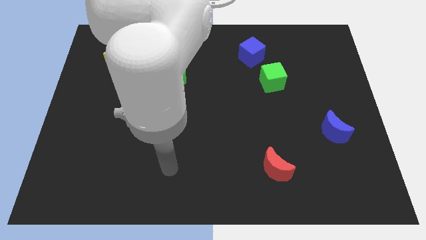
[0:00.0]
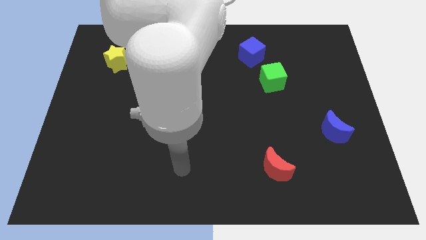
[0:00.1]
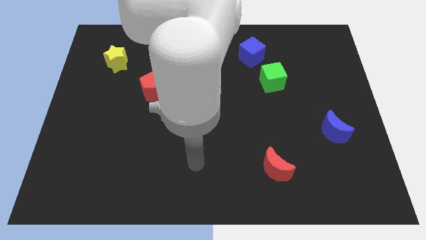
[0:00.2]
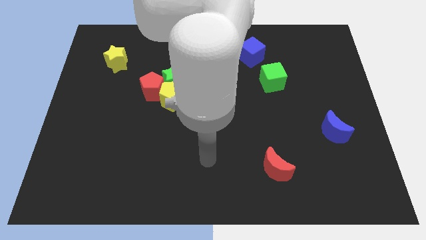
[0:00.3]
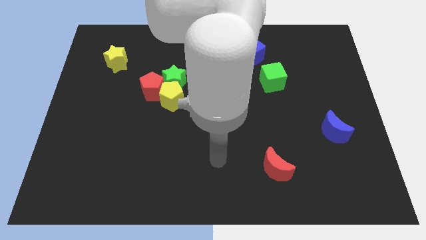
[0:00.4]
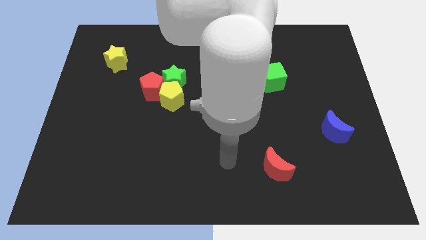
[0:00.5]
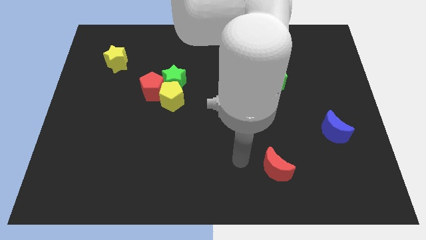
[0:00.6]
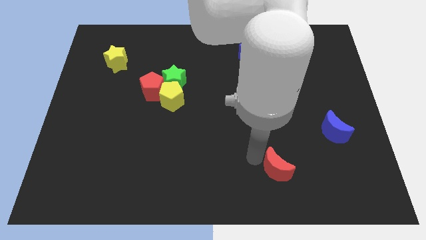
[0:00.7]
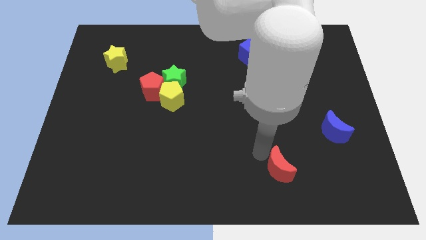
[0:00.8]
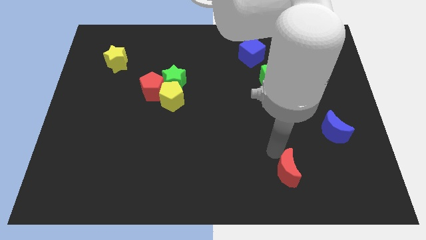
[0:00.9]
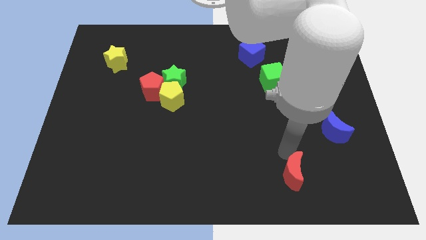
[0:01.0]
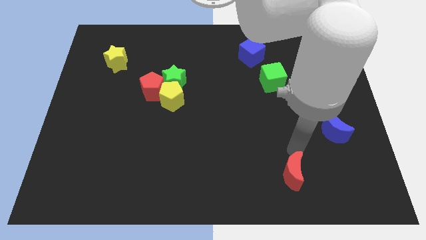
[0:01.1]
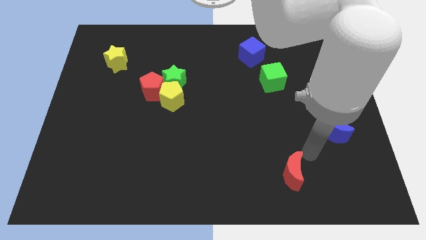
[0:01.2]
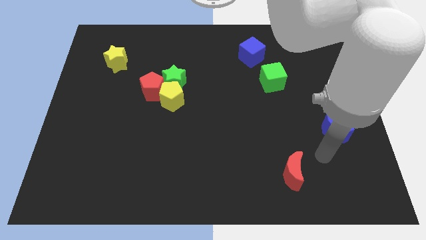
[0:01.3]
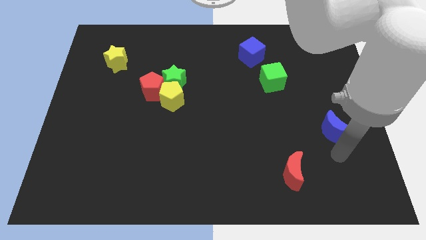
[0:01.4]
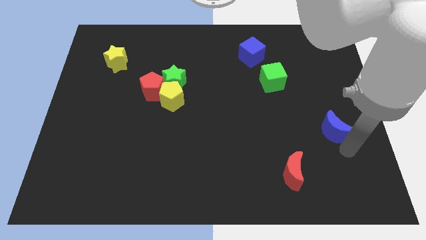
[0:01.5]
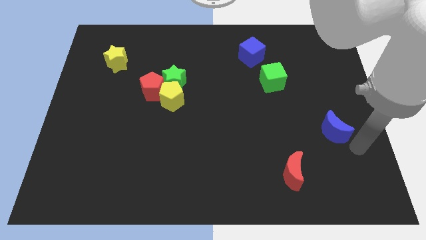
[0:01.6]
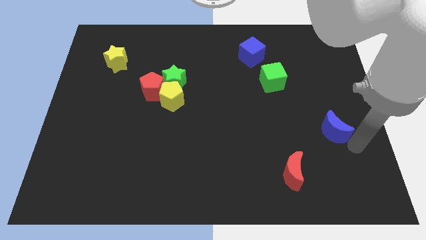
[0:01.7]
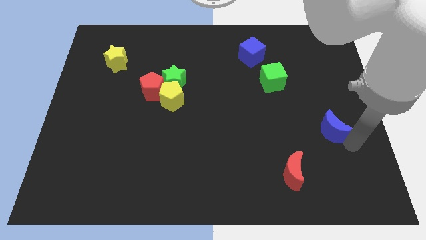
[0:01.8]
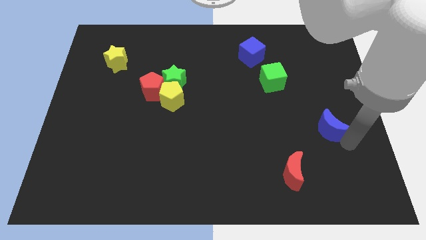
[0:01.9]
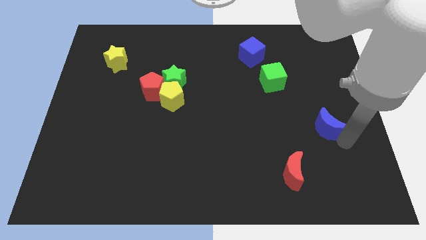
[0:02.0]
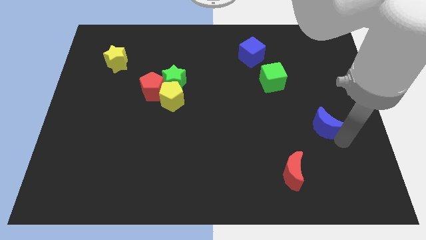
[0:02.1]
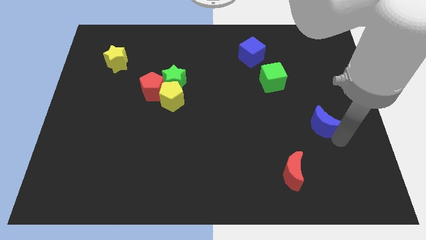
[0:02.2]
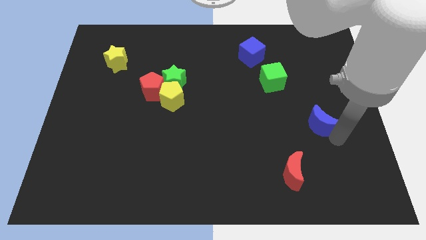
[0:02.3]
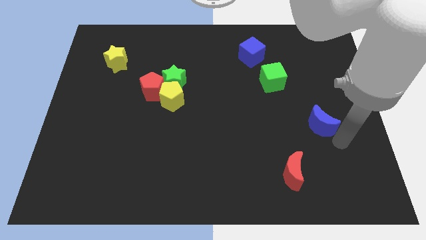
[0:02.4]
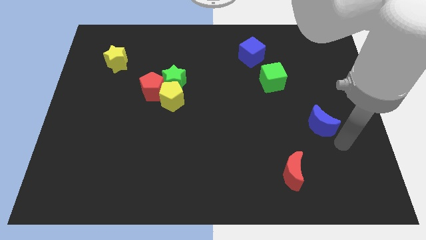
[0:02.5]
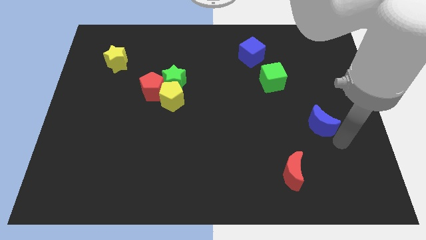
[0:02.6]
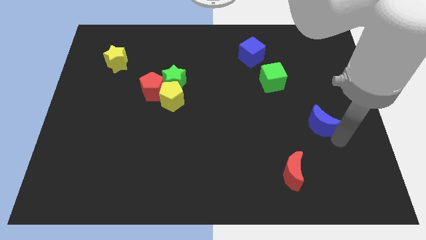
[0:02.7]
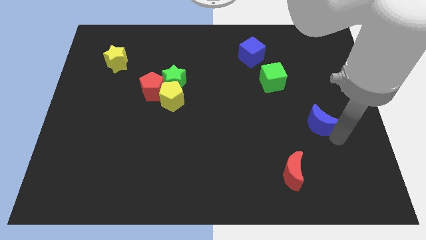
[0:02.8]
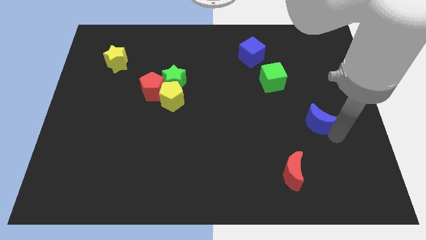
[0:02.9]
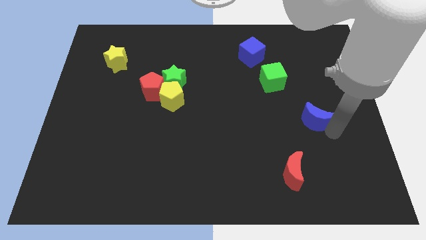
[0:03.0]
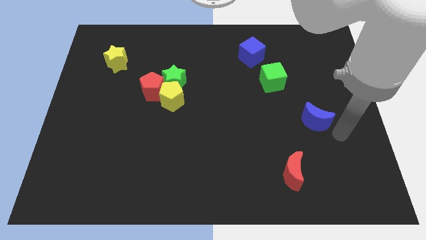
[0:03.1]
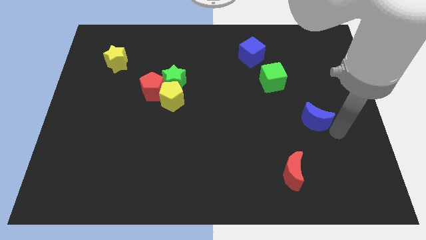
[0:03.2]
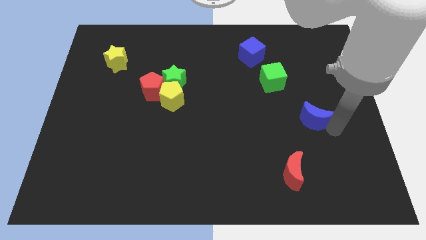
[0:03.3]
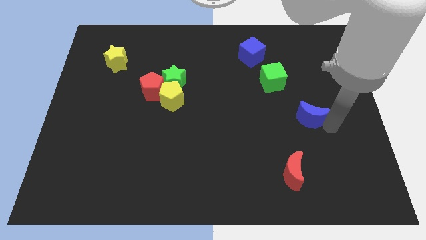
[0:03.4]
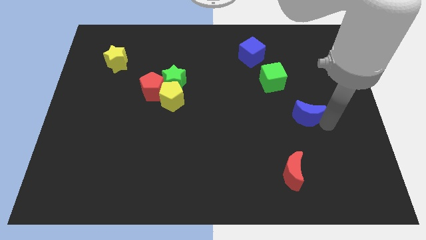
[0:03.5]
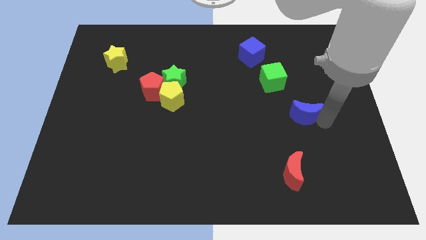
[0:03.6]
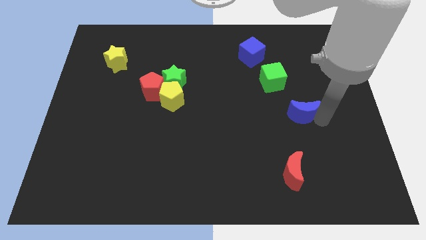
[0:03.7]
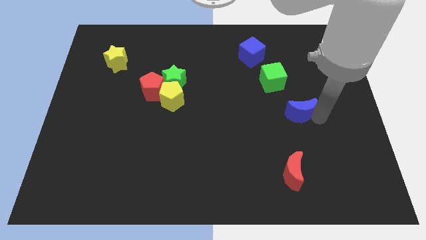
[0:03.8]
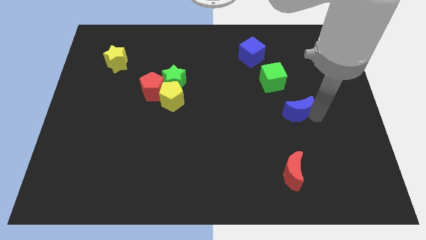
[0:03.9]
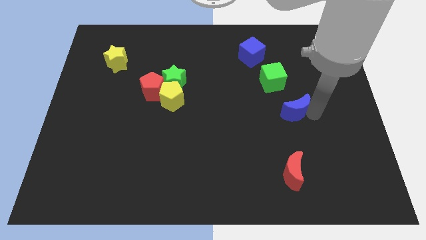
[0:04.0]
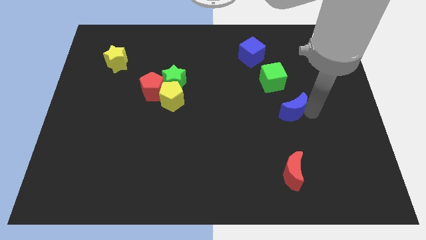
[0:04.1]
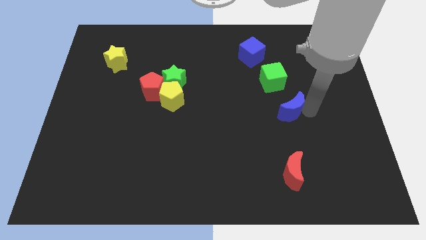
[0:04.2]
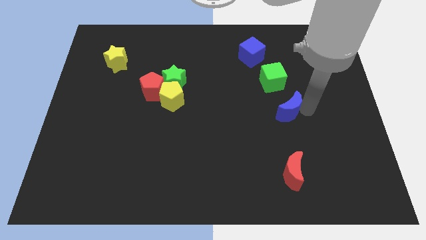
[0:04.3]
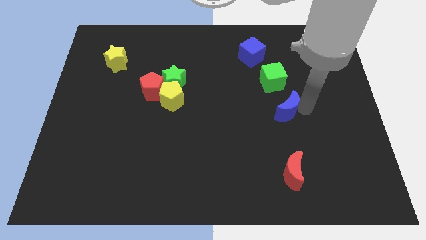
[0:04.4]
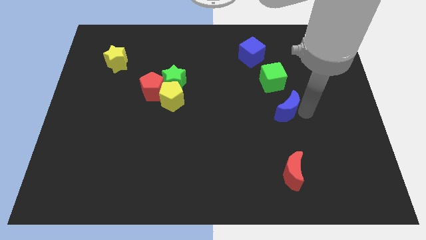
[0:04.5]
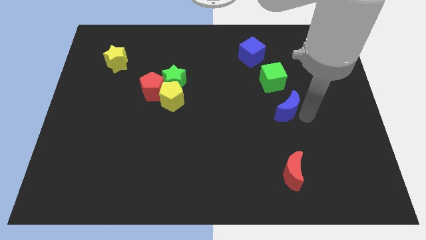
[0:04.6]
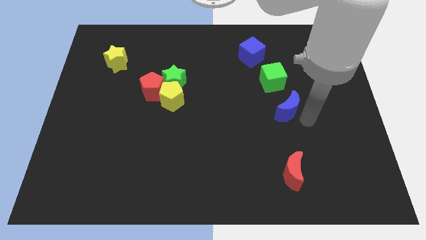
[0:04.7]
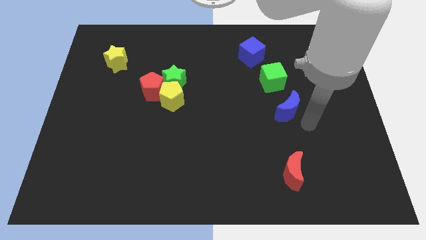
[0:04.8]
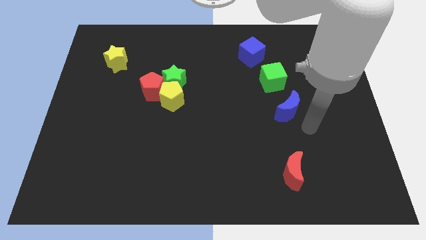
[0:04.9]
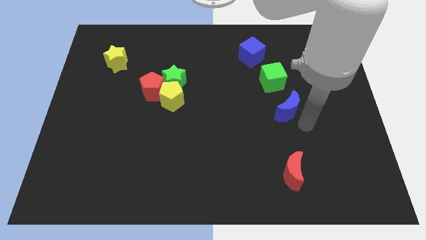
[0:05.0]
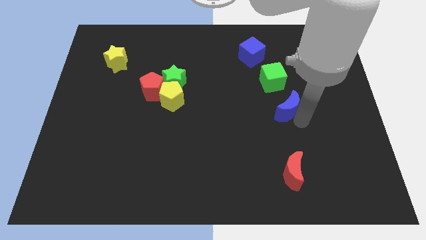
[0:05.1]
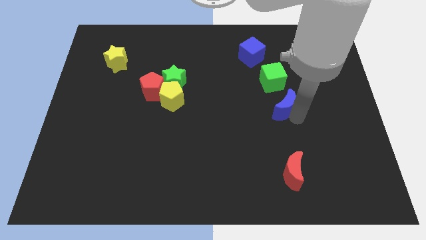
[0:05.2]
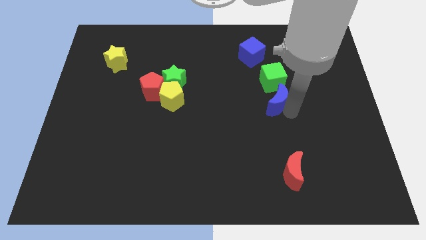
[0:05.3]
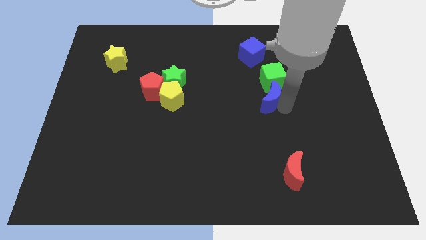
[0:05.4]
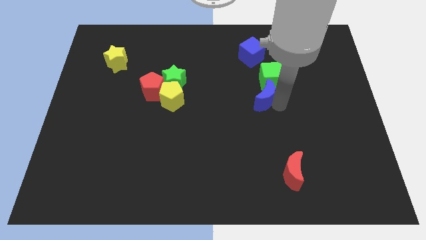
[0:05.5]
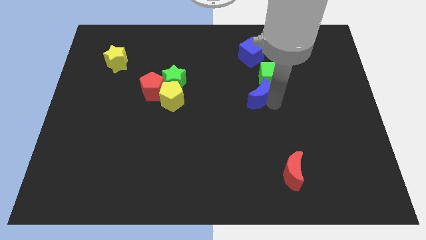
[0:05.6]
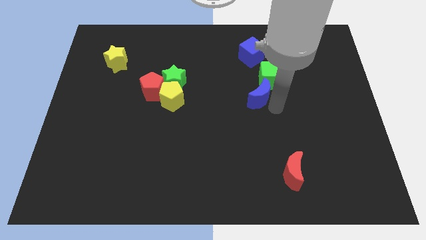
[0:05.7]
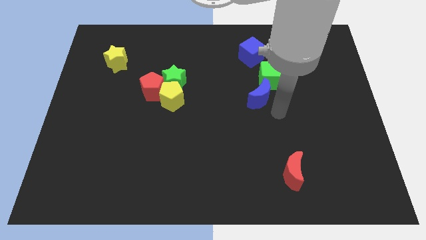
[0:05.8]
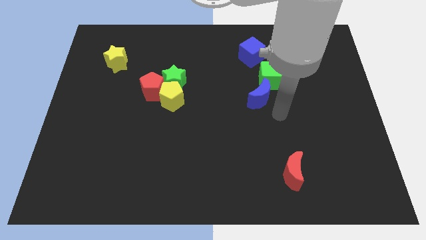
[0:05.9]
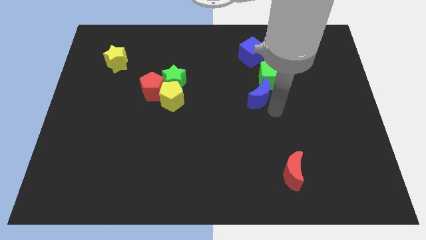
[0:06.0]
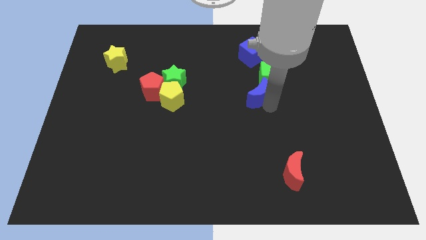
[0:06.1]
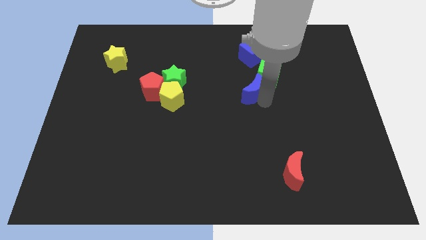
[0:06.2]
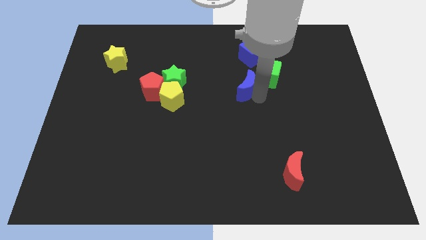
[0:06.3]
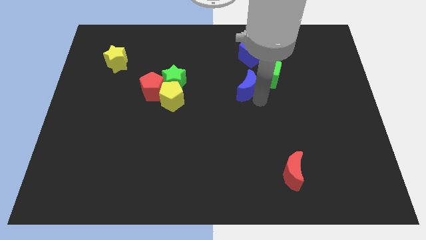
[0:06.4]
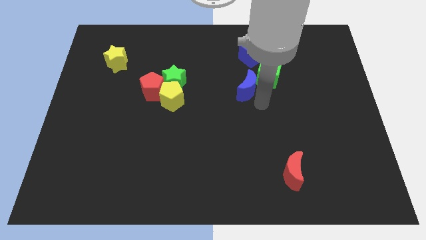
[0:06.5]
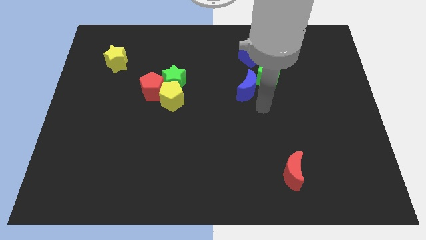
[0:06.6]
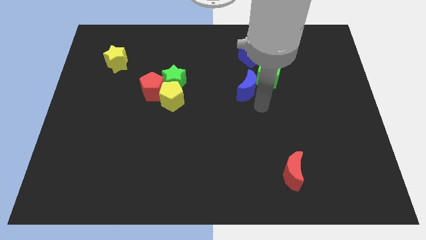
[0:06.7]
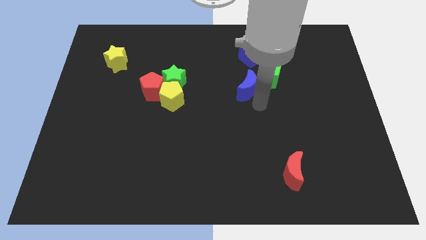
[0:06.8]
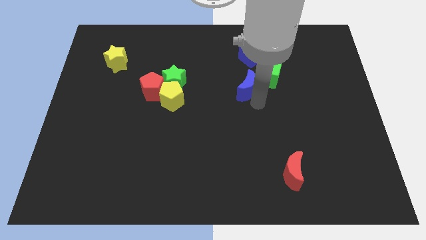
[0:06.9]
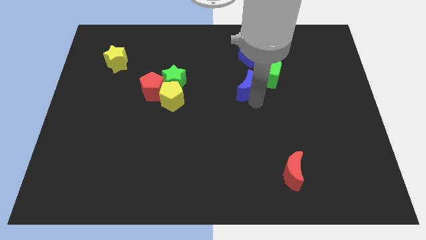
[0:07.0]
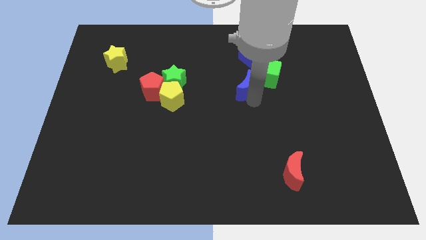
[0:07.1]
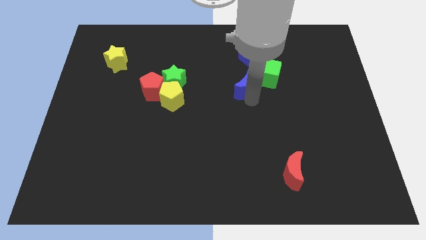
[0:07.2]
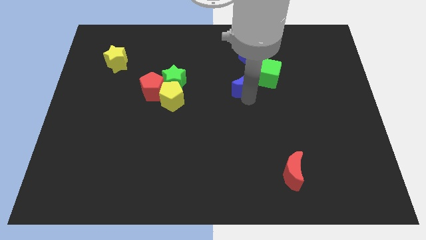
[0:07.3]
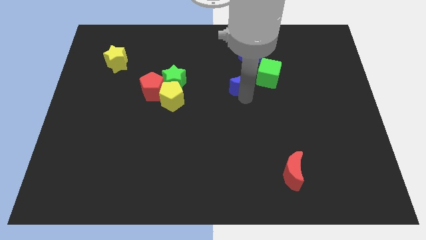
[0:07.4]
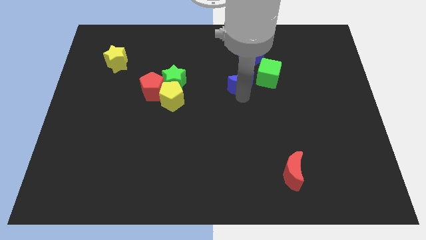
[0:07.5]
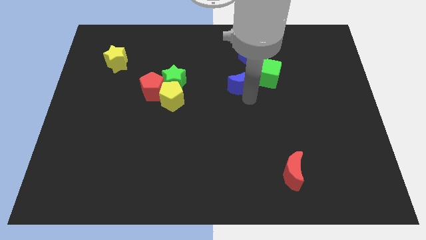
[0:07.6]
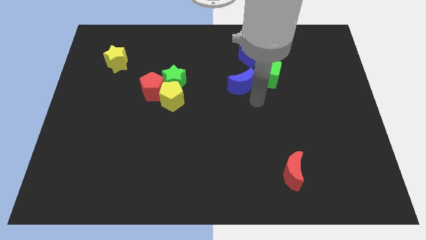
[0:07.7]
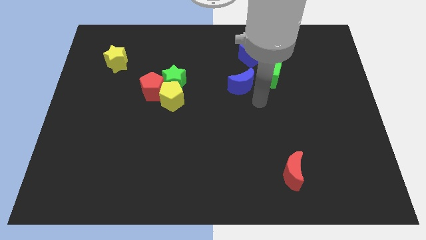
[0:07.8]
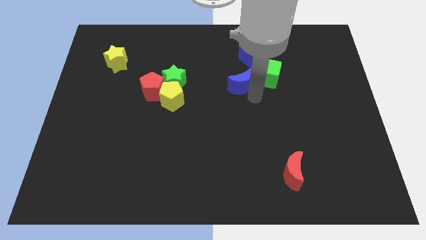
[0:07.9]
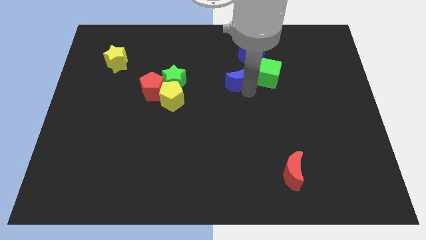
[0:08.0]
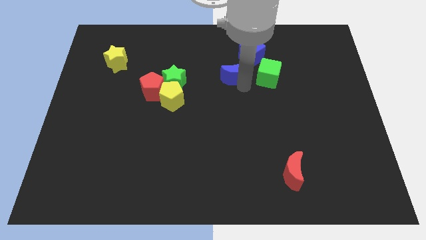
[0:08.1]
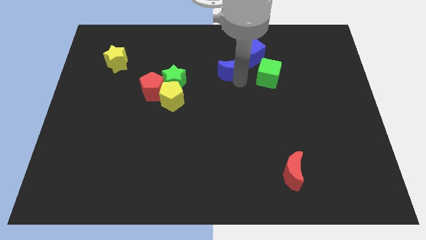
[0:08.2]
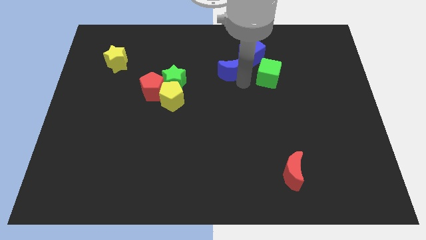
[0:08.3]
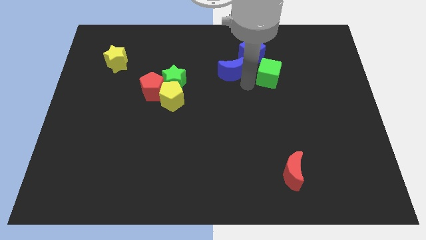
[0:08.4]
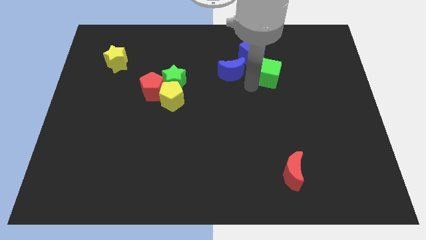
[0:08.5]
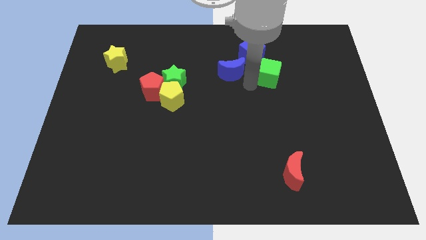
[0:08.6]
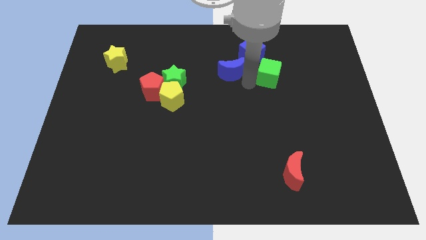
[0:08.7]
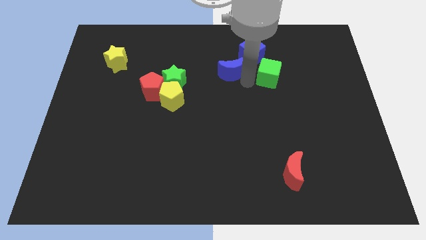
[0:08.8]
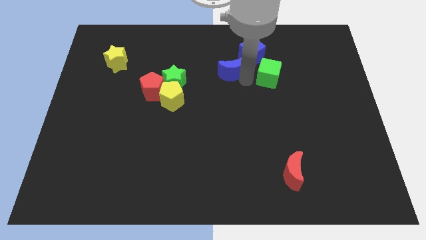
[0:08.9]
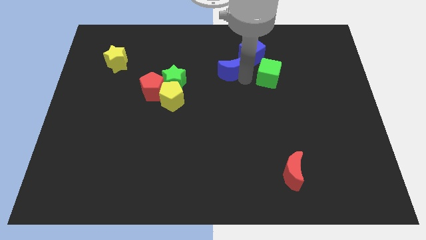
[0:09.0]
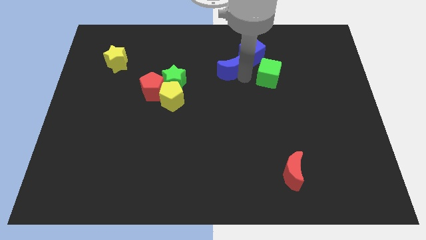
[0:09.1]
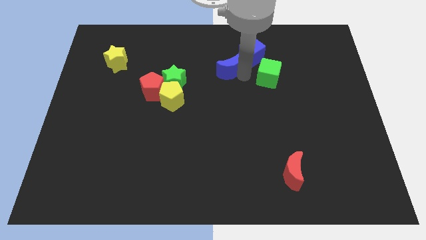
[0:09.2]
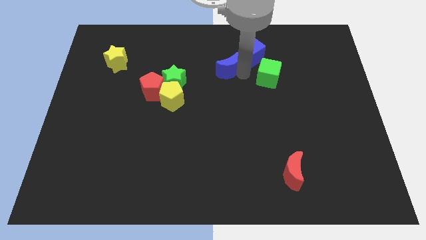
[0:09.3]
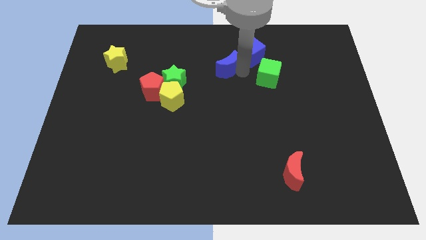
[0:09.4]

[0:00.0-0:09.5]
move the blue moon to the left side of the blue cube
